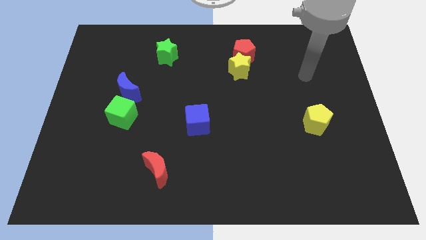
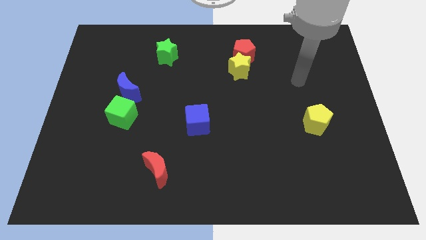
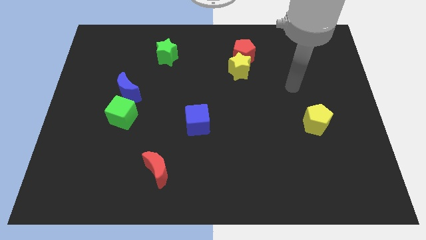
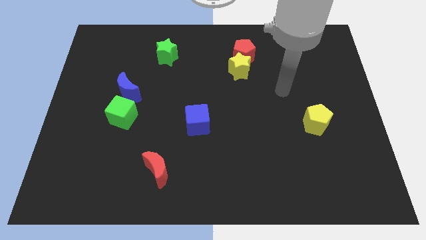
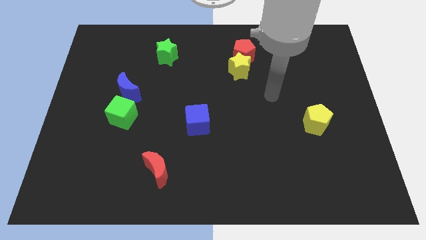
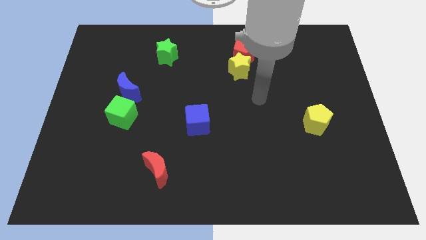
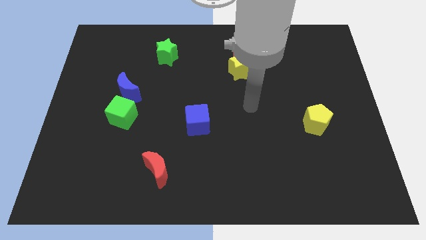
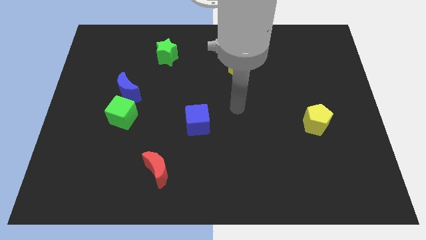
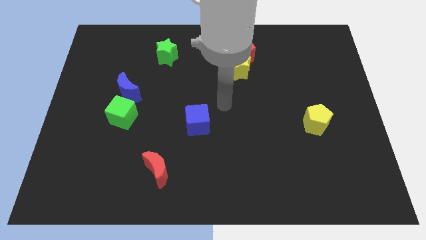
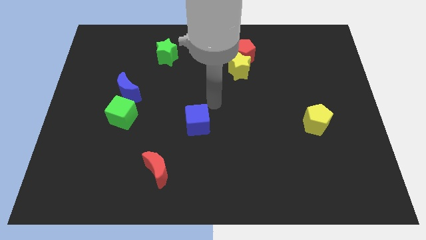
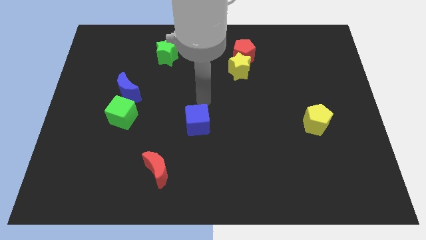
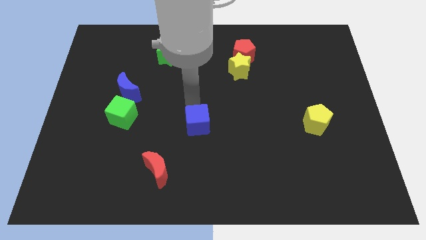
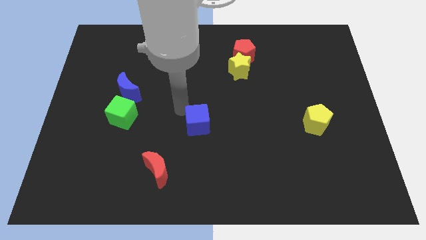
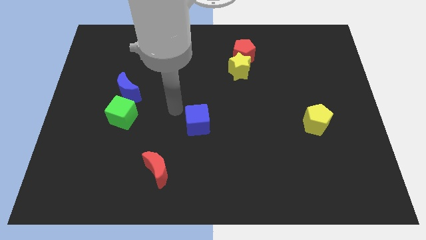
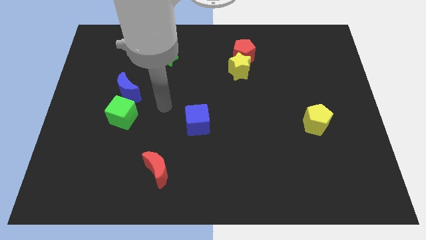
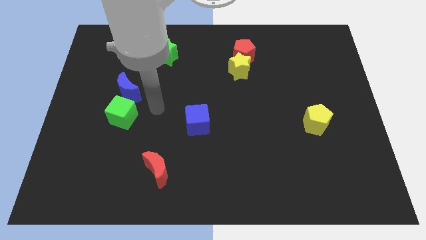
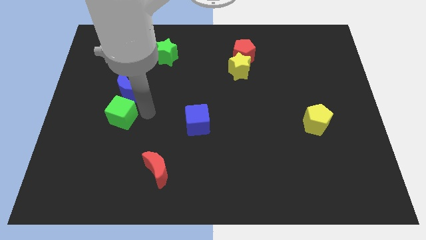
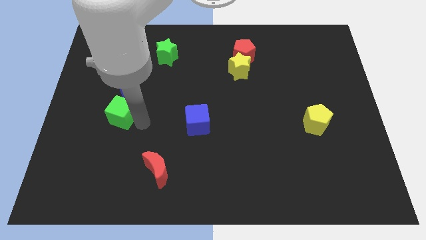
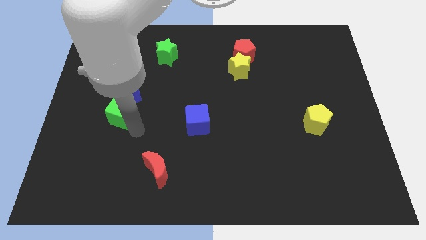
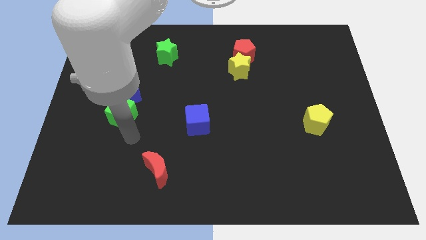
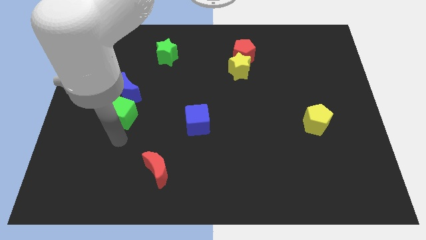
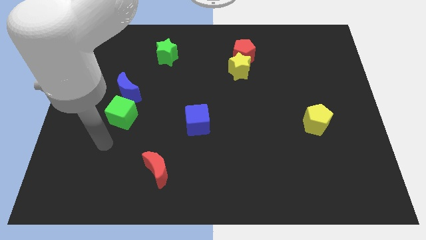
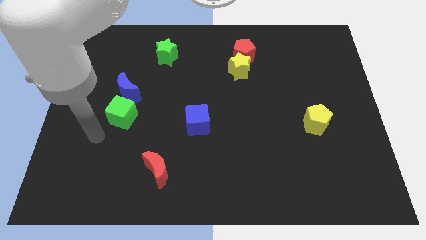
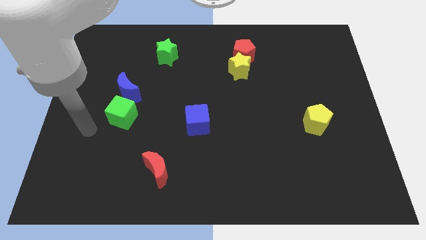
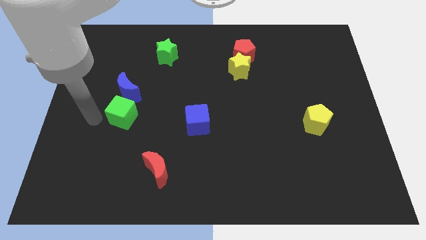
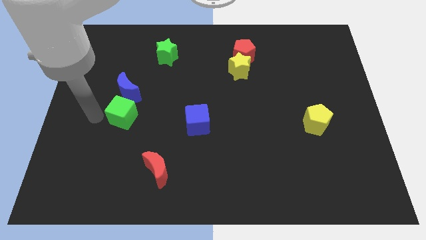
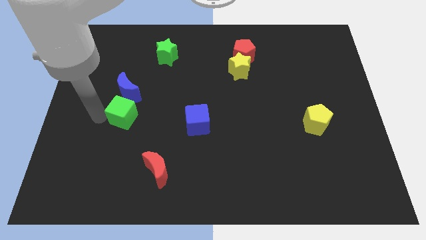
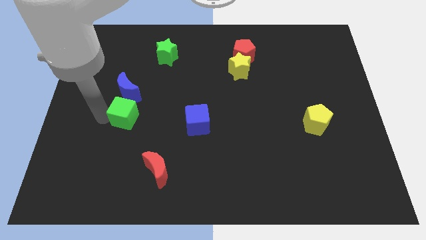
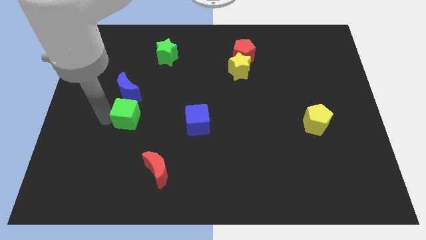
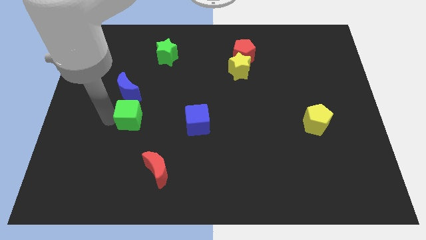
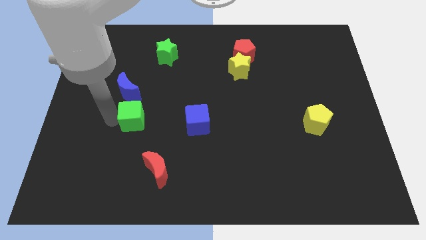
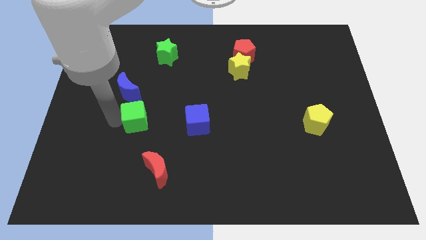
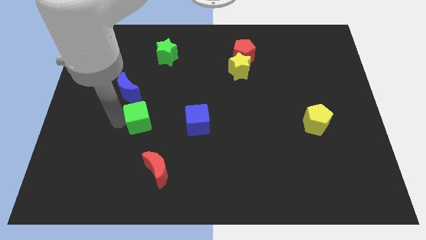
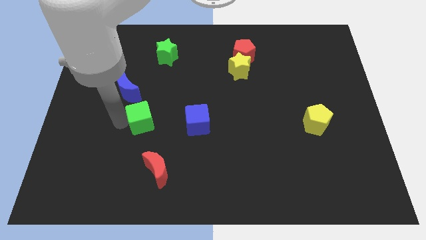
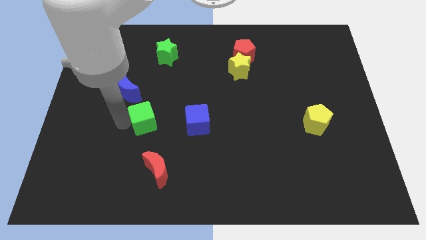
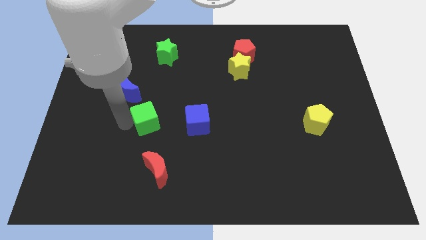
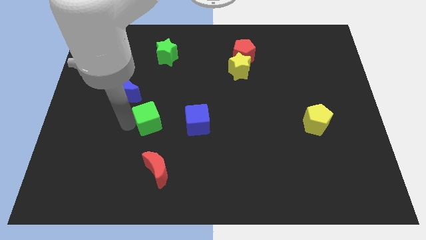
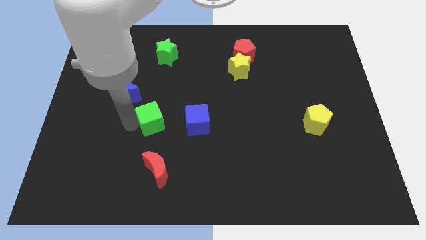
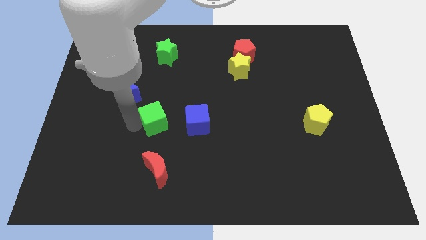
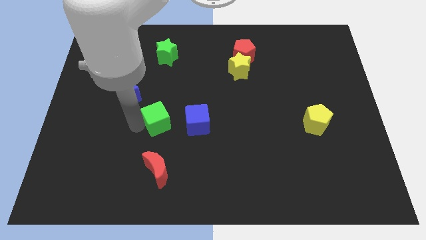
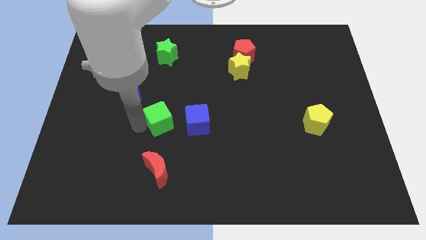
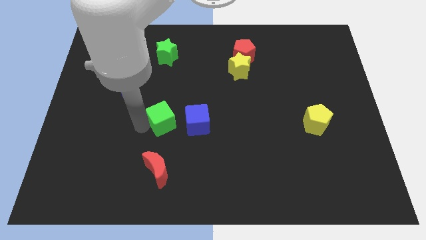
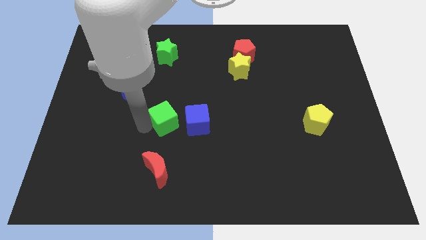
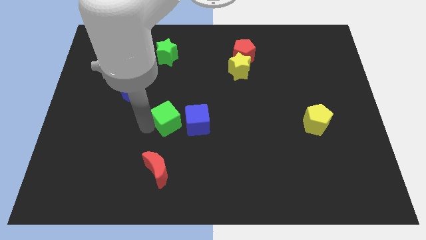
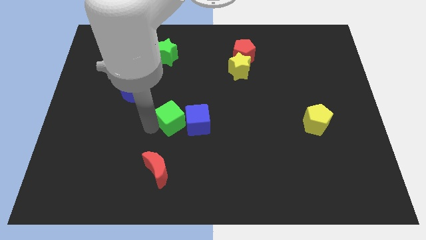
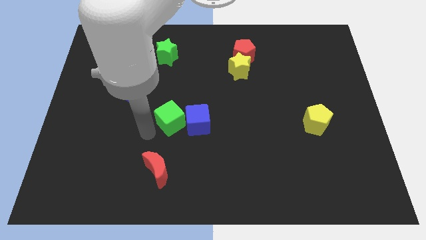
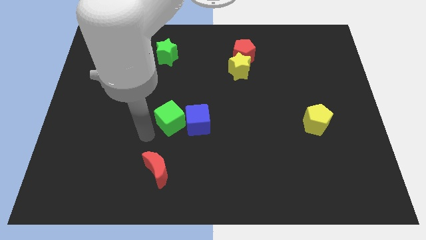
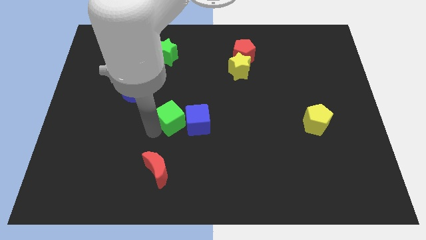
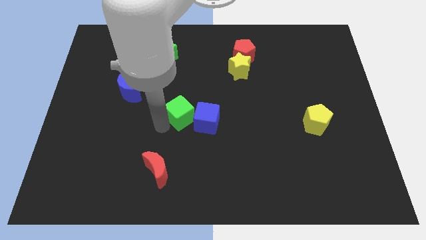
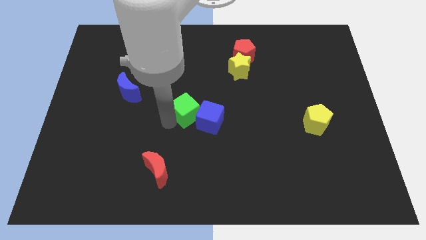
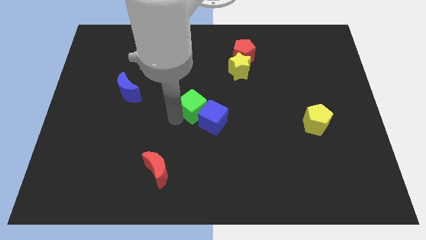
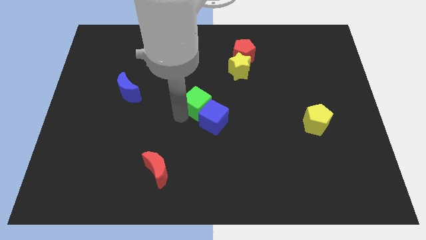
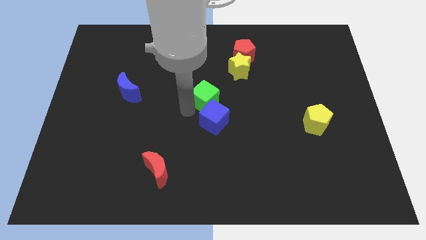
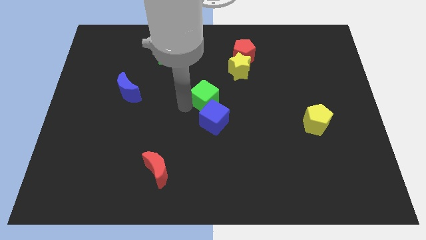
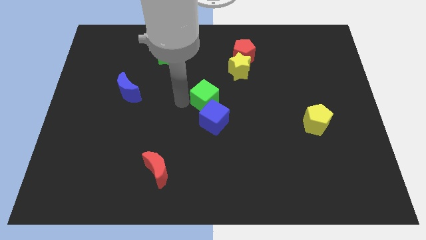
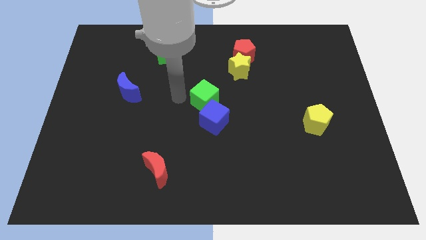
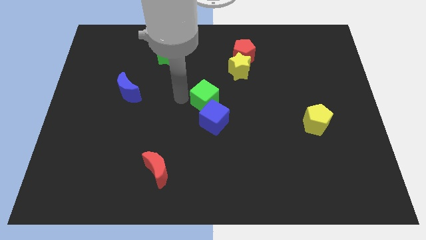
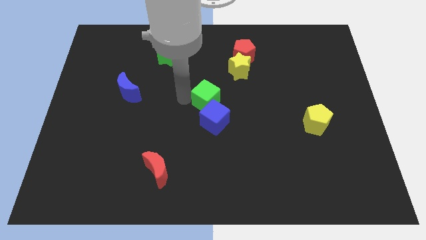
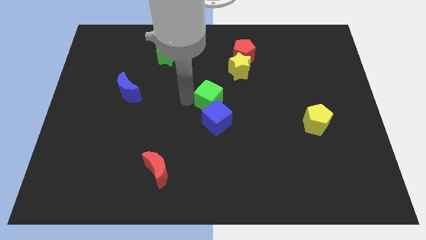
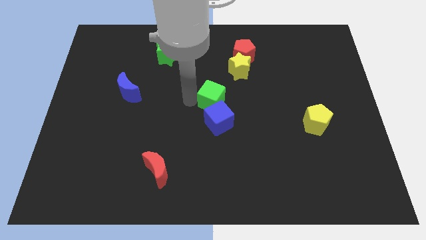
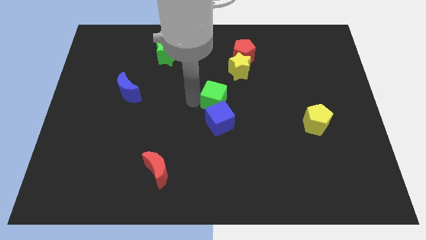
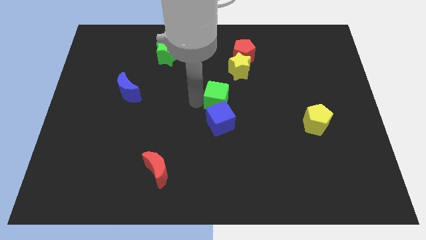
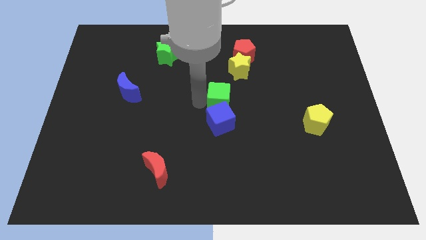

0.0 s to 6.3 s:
move the green cube to the top right of the blue cube

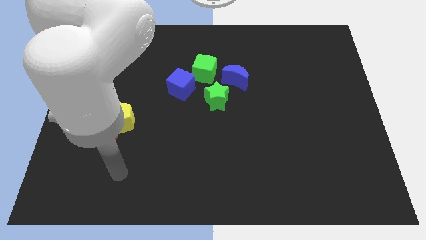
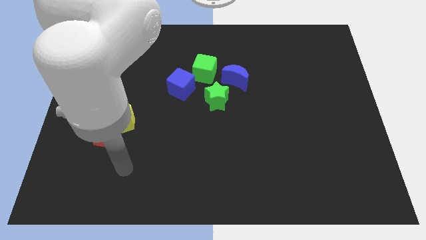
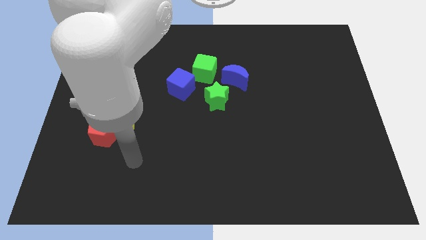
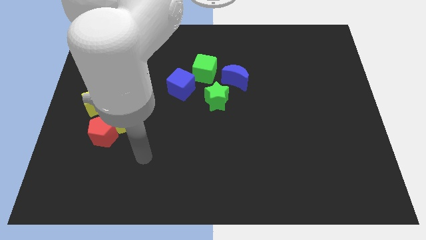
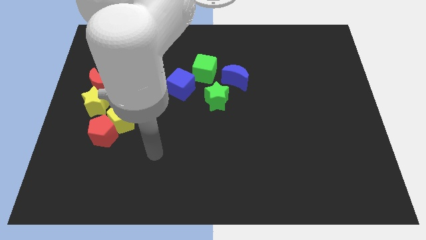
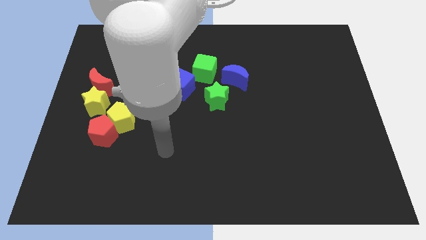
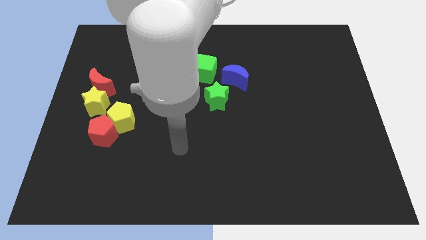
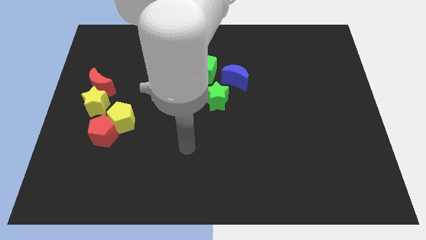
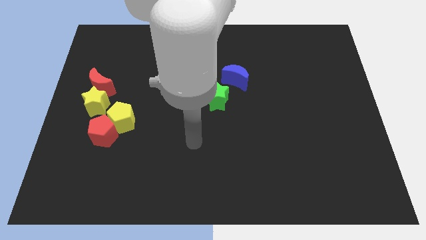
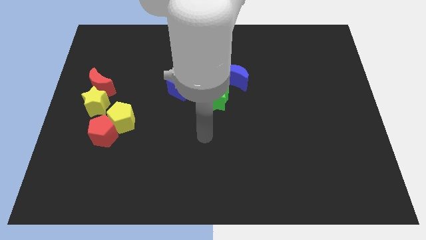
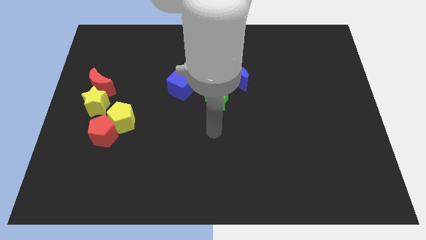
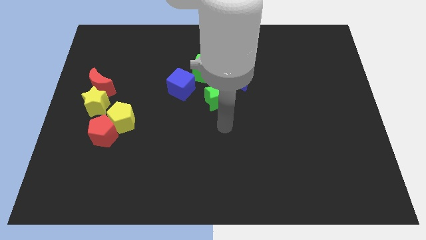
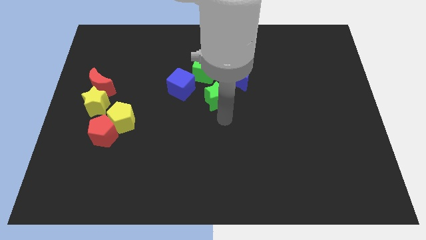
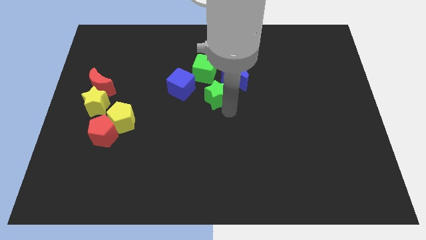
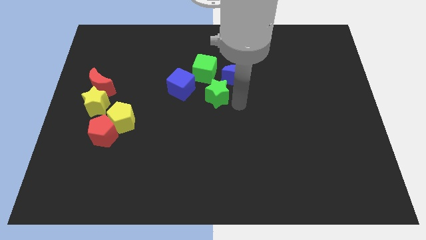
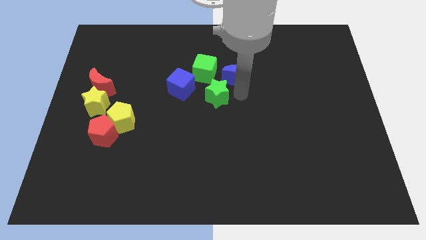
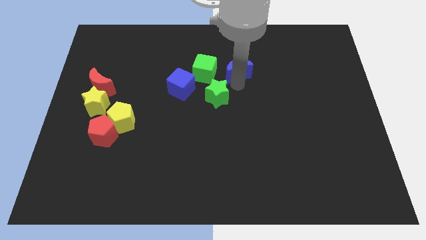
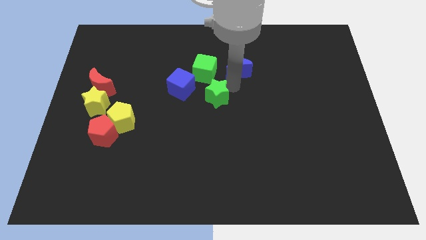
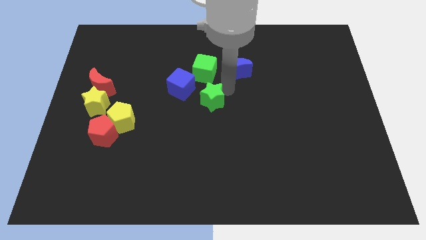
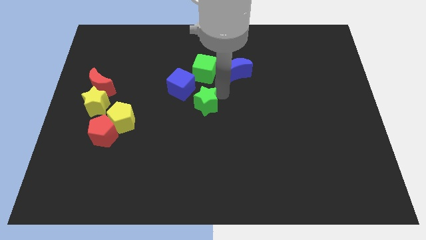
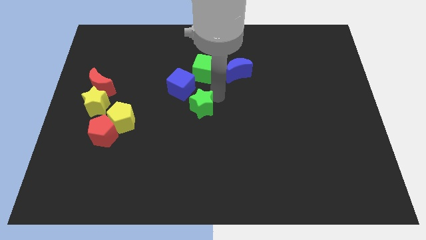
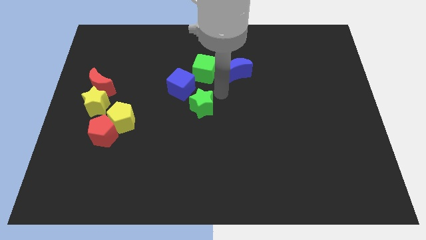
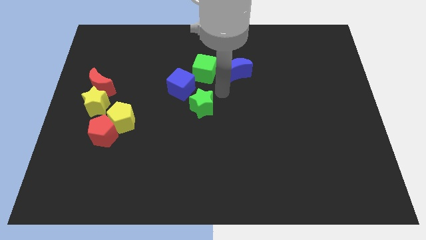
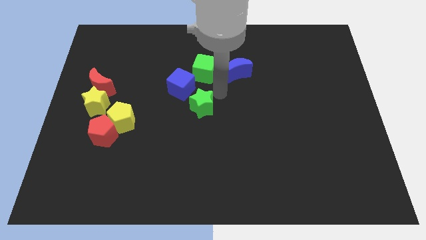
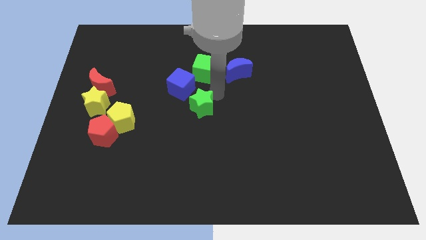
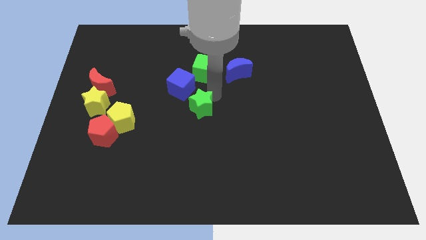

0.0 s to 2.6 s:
put the green star below the blue cube
